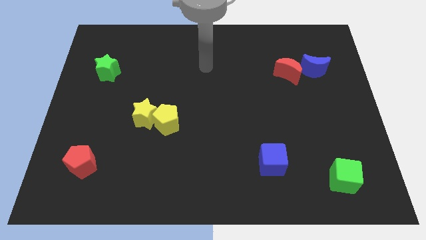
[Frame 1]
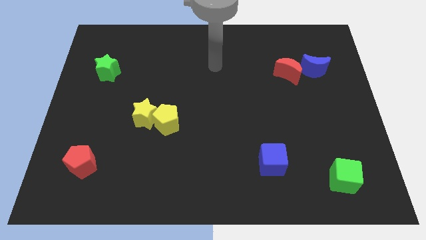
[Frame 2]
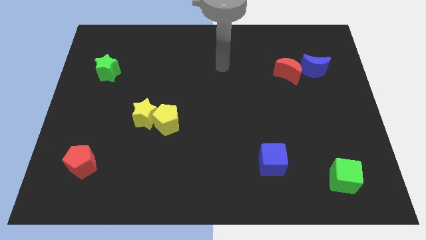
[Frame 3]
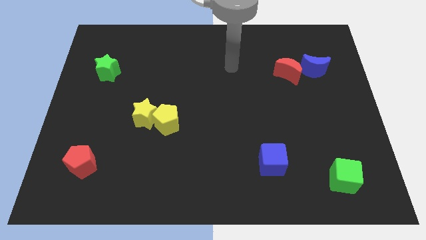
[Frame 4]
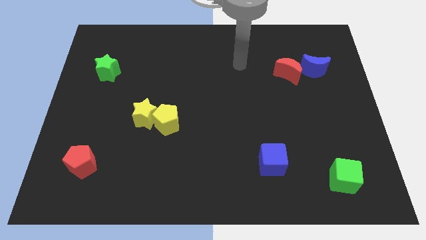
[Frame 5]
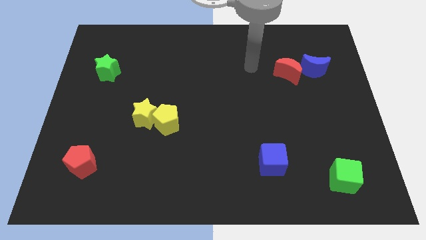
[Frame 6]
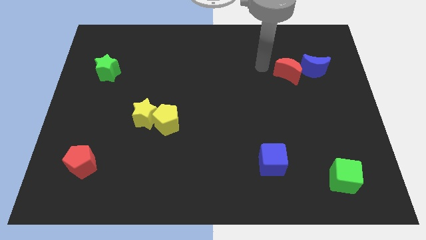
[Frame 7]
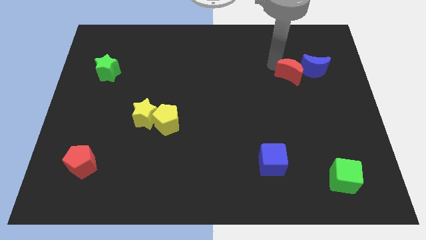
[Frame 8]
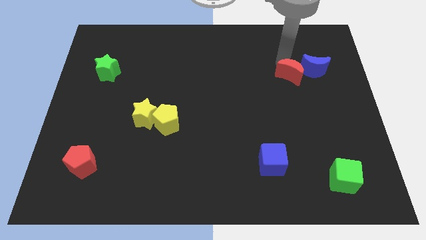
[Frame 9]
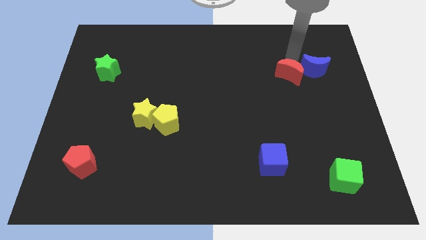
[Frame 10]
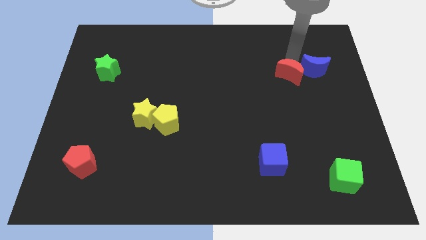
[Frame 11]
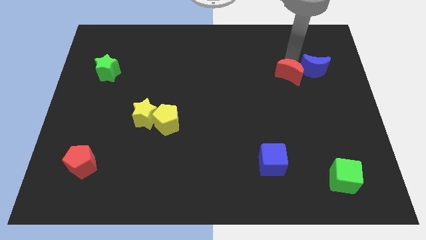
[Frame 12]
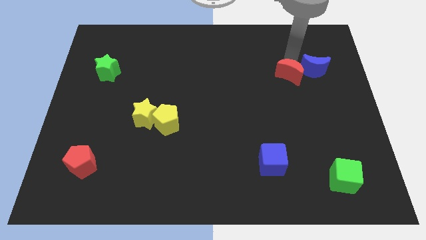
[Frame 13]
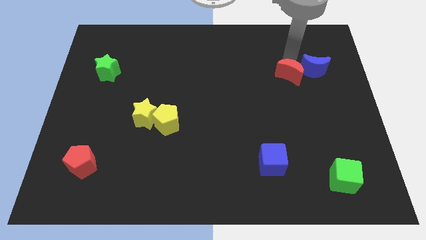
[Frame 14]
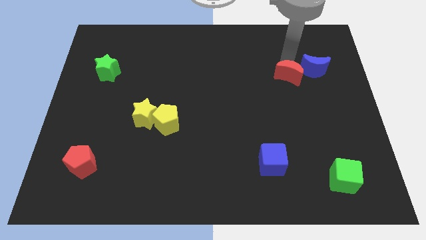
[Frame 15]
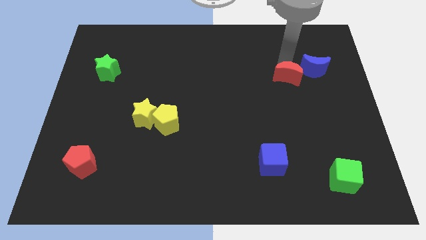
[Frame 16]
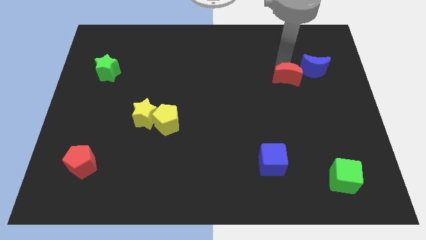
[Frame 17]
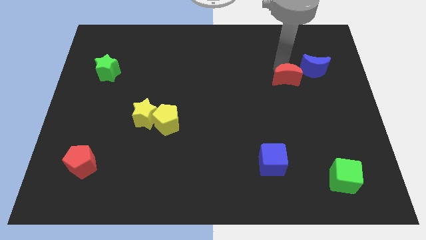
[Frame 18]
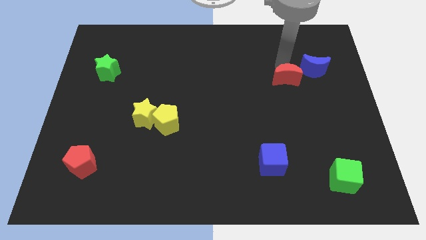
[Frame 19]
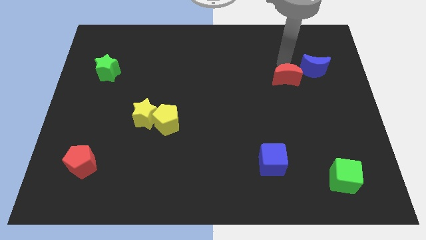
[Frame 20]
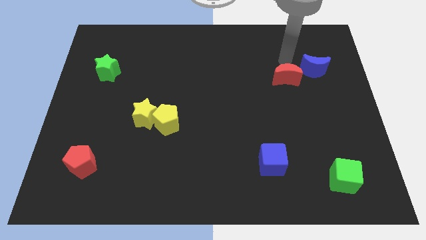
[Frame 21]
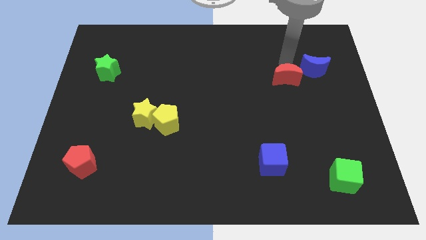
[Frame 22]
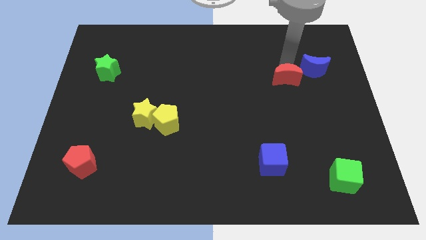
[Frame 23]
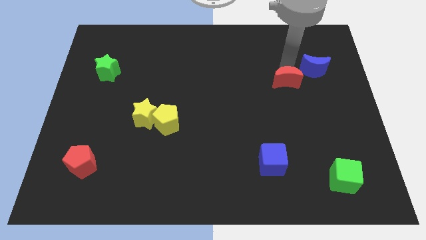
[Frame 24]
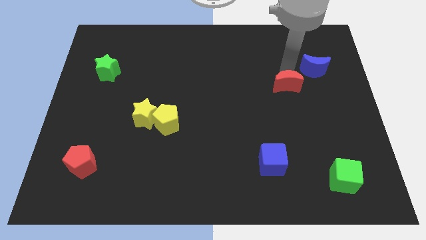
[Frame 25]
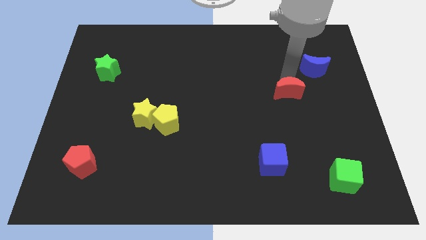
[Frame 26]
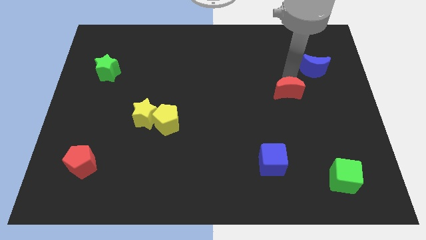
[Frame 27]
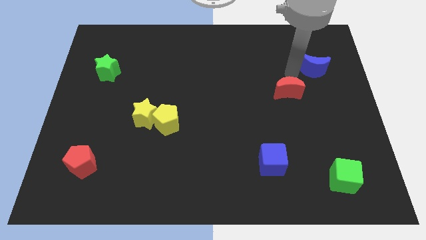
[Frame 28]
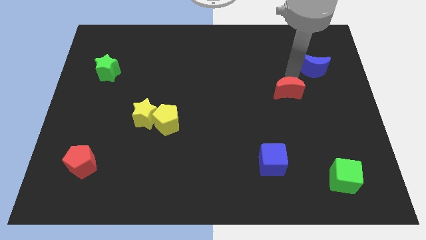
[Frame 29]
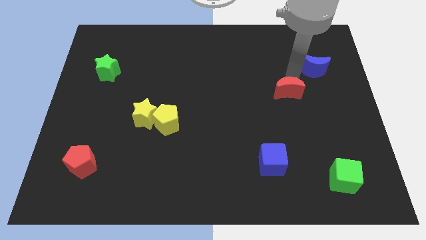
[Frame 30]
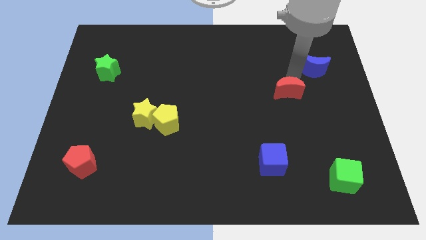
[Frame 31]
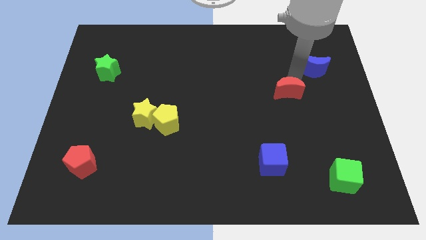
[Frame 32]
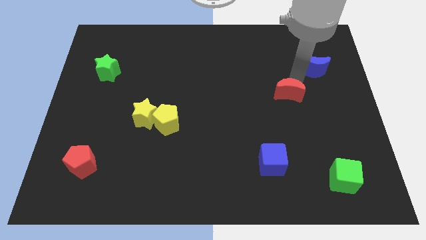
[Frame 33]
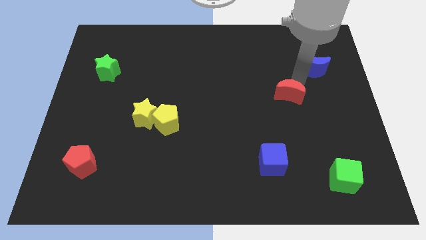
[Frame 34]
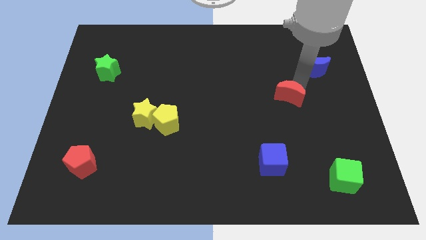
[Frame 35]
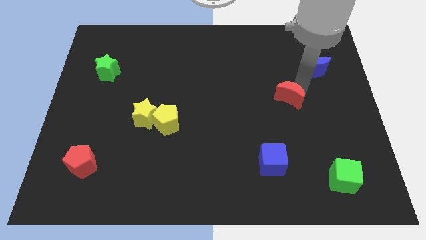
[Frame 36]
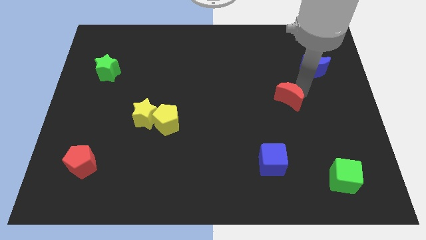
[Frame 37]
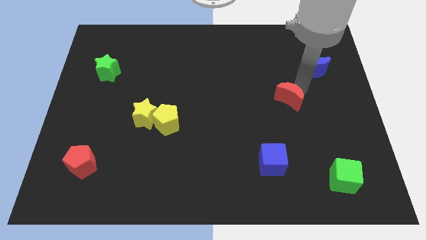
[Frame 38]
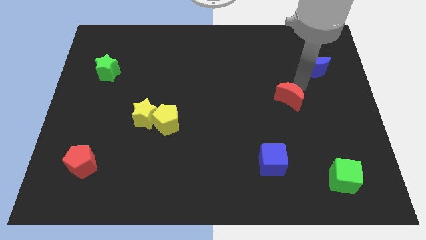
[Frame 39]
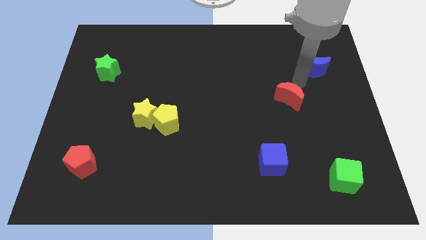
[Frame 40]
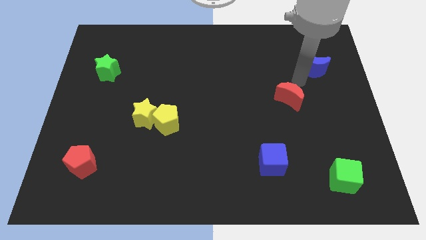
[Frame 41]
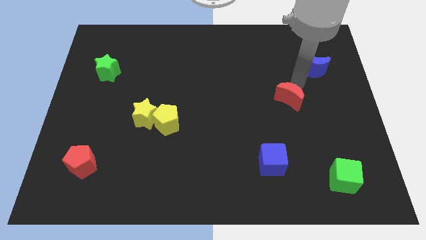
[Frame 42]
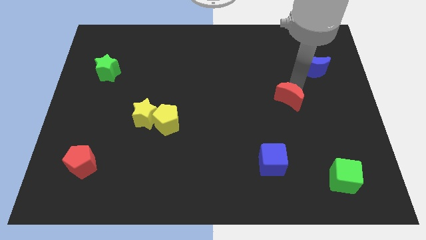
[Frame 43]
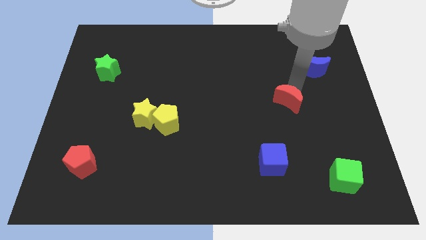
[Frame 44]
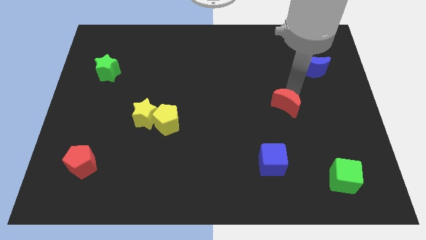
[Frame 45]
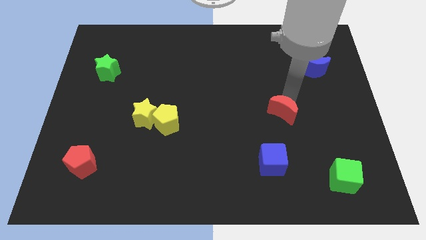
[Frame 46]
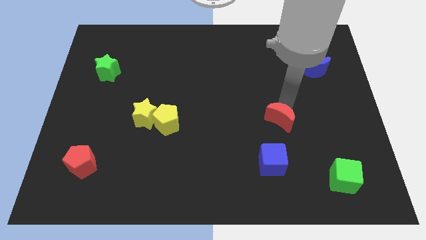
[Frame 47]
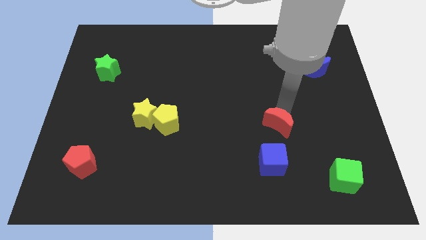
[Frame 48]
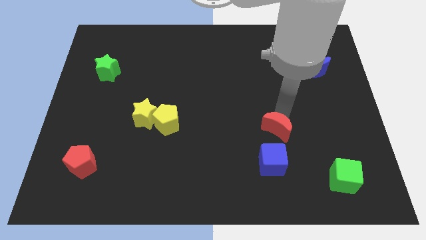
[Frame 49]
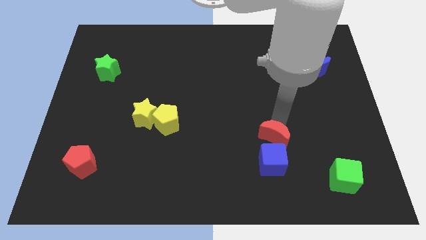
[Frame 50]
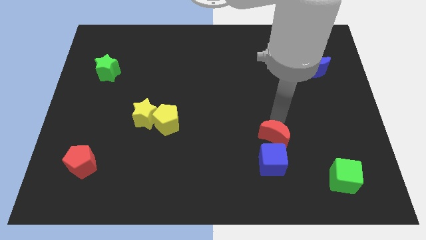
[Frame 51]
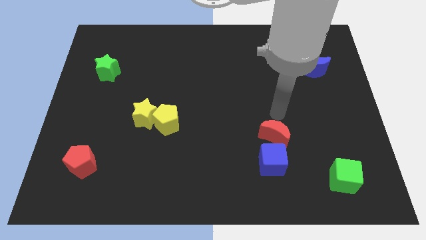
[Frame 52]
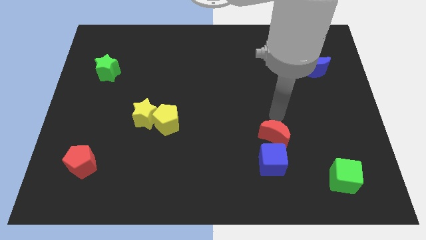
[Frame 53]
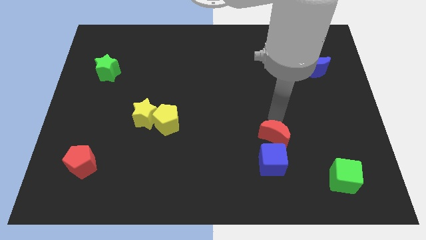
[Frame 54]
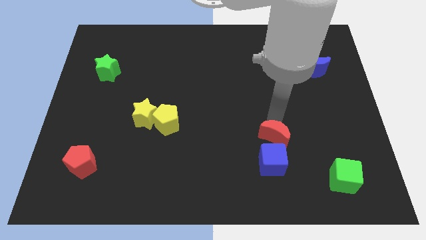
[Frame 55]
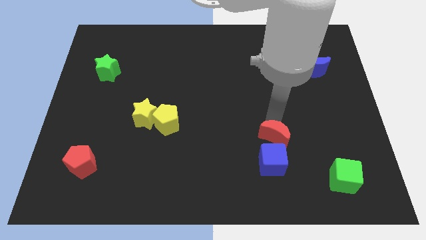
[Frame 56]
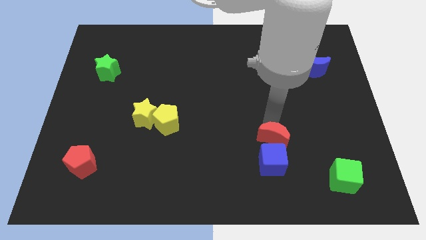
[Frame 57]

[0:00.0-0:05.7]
move the red moon close to the blue cube

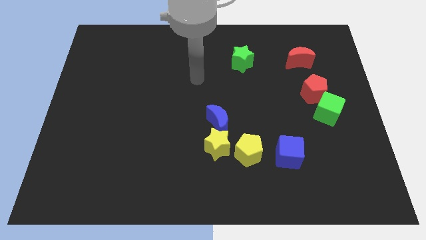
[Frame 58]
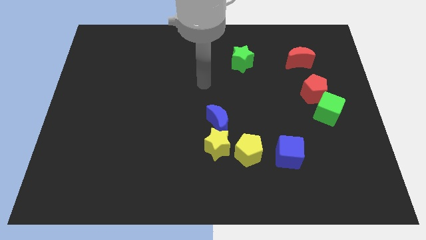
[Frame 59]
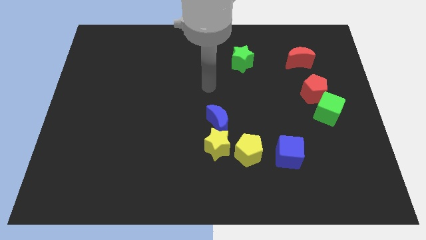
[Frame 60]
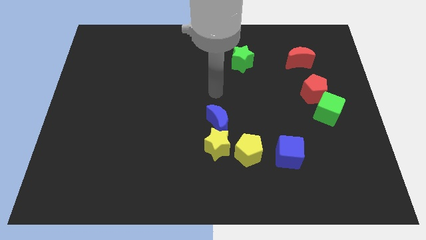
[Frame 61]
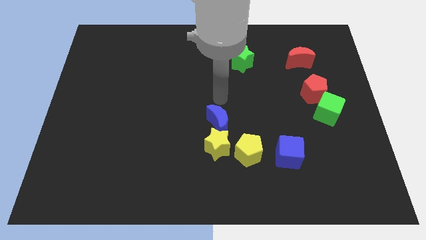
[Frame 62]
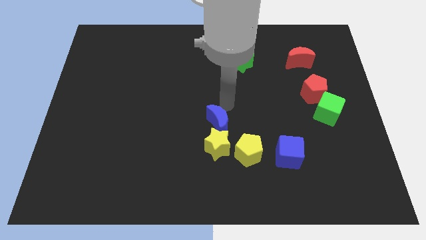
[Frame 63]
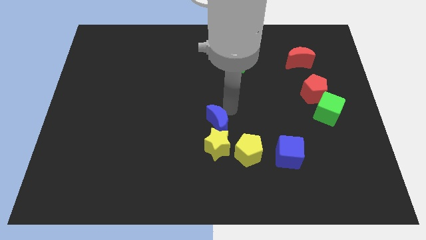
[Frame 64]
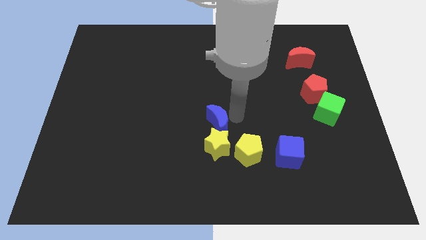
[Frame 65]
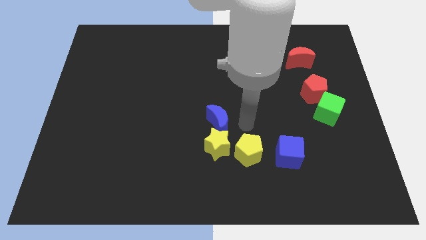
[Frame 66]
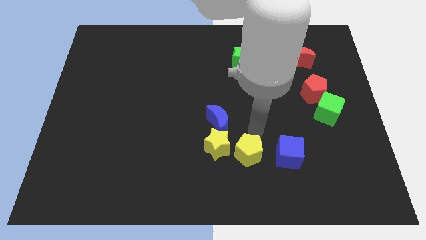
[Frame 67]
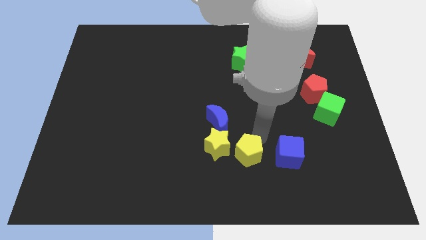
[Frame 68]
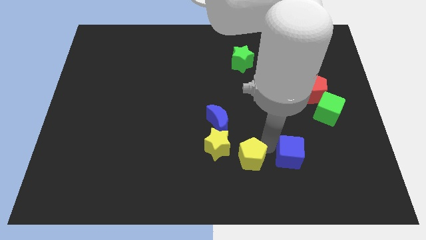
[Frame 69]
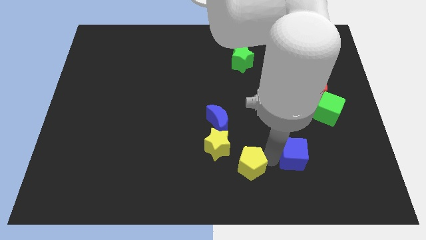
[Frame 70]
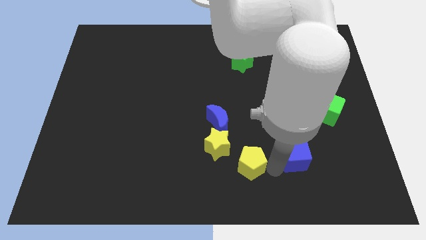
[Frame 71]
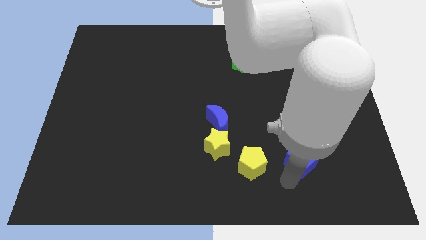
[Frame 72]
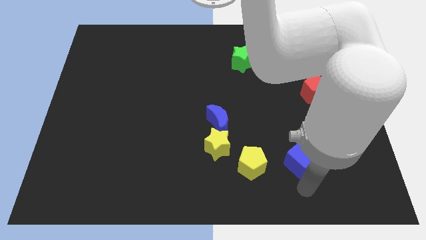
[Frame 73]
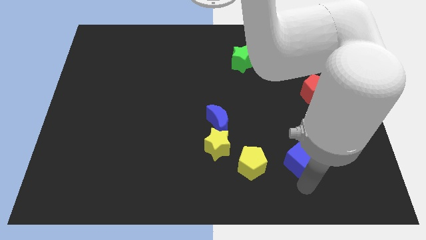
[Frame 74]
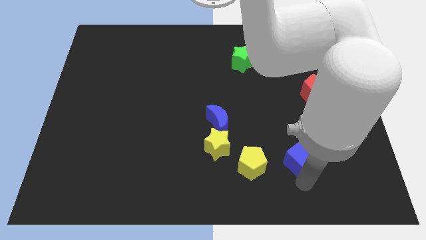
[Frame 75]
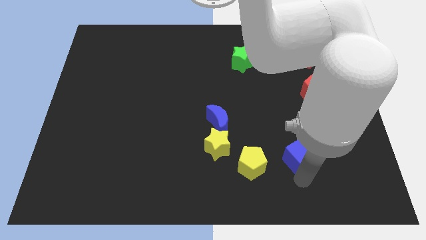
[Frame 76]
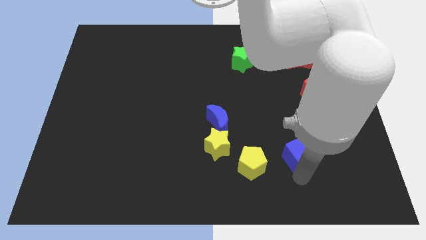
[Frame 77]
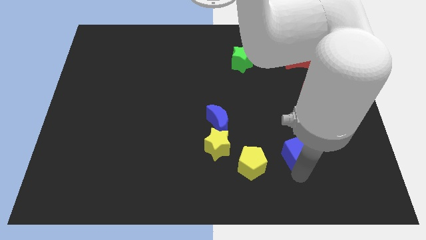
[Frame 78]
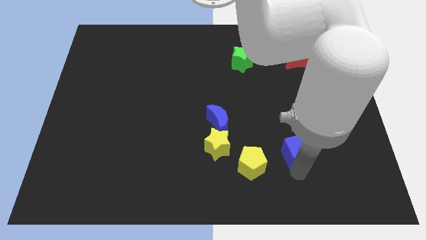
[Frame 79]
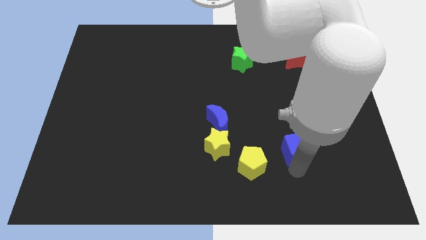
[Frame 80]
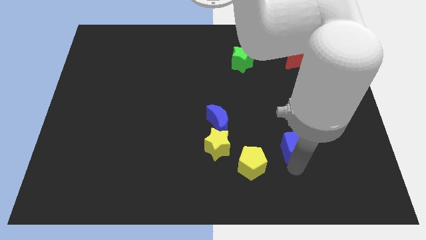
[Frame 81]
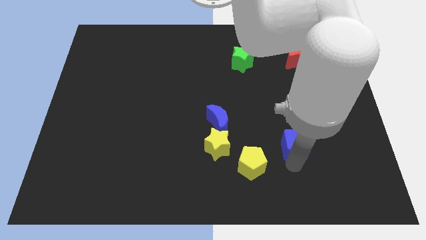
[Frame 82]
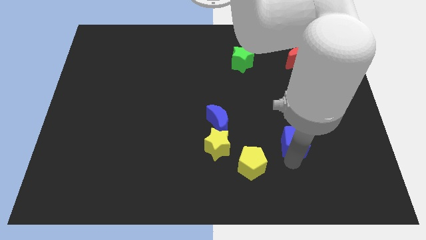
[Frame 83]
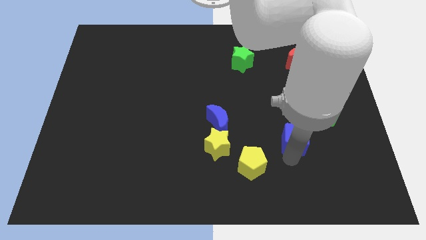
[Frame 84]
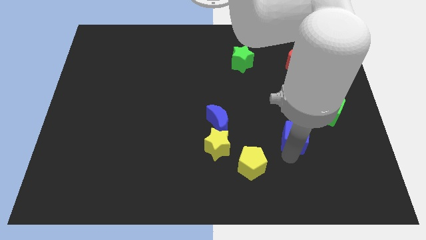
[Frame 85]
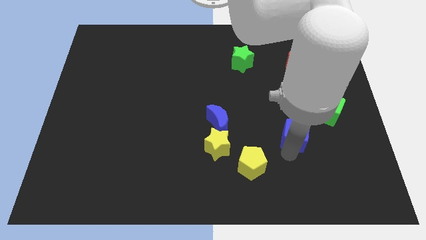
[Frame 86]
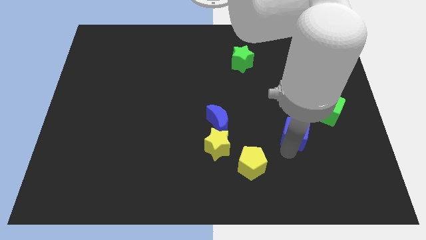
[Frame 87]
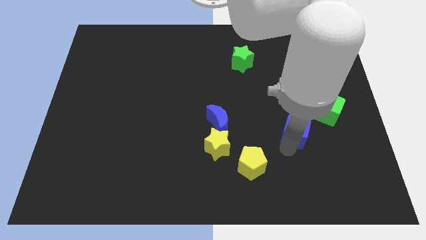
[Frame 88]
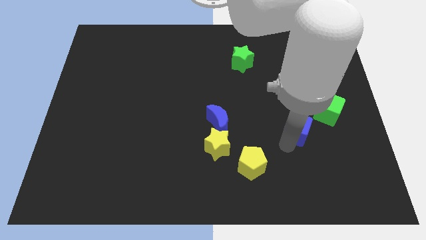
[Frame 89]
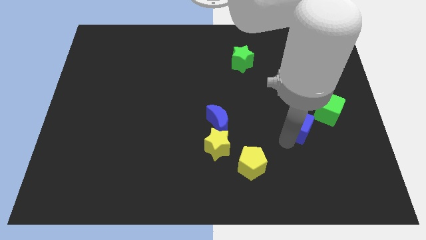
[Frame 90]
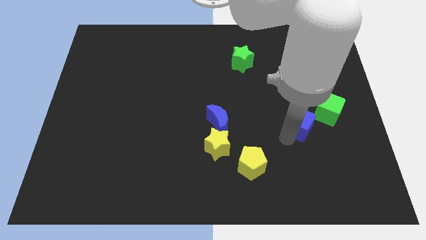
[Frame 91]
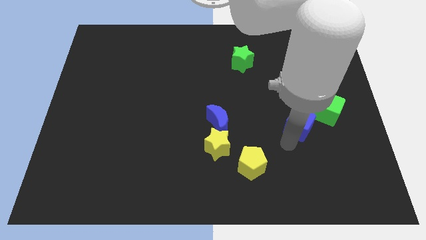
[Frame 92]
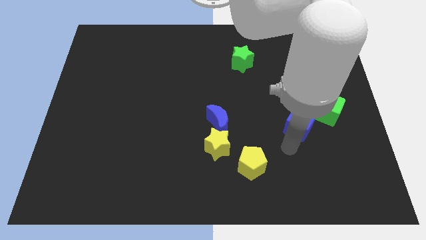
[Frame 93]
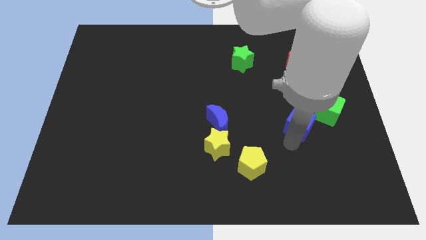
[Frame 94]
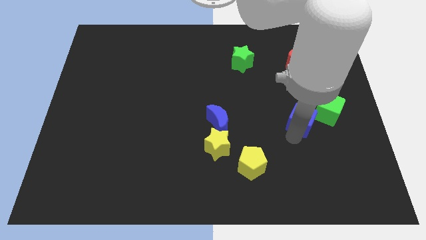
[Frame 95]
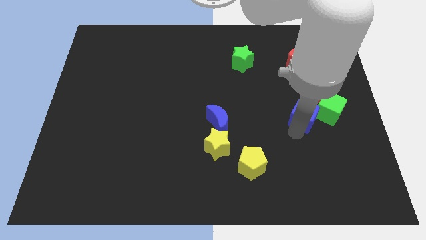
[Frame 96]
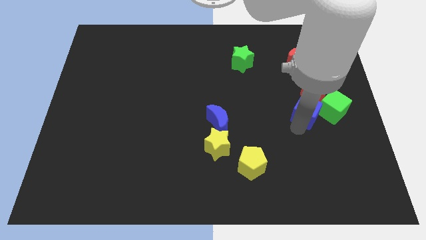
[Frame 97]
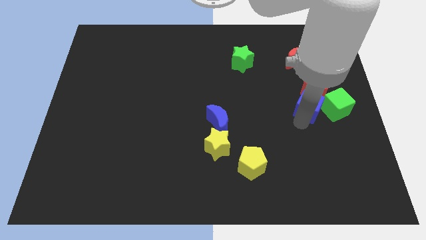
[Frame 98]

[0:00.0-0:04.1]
move the blue cube close to the red pentagon
